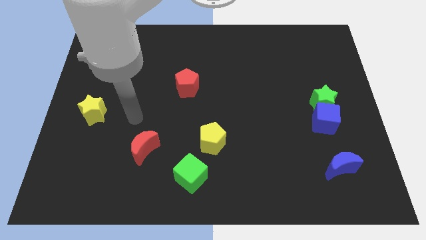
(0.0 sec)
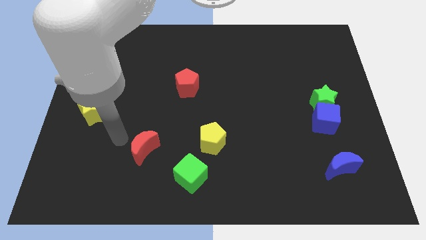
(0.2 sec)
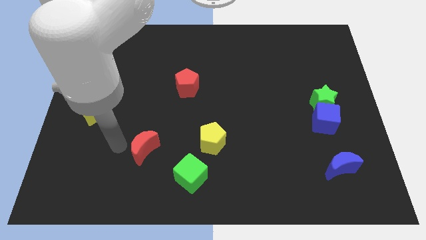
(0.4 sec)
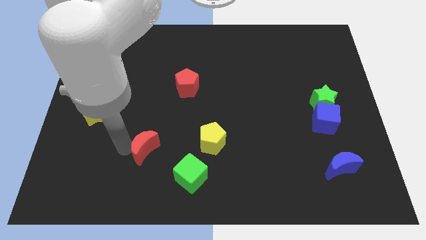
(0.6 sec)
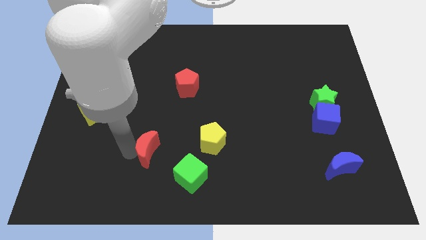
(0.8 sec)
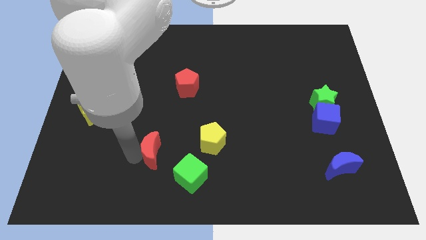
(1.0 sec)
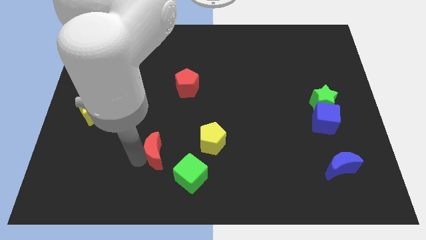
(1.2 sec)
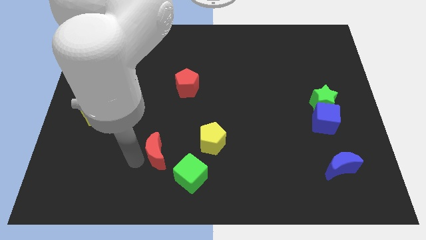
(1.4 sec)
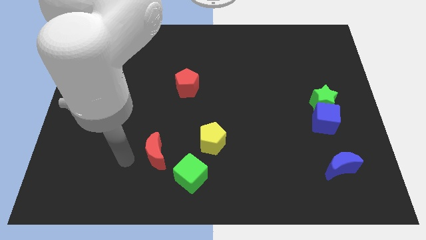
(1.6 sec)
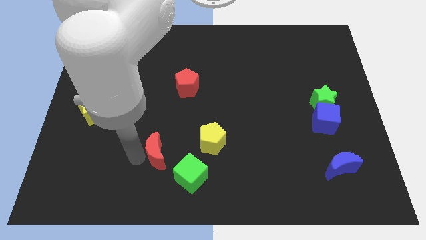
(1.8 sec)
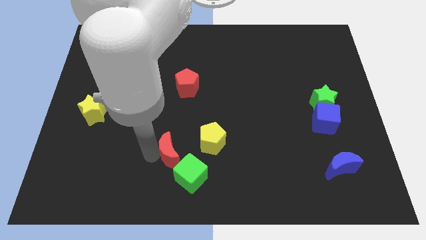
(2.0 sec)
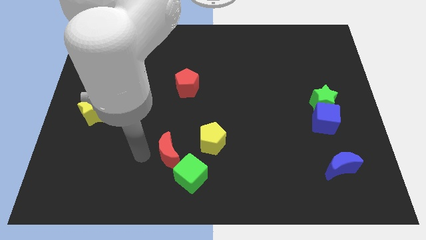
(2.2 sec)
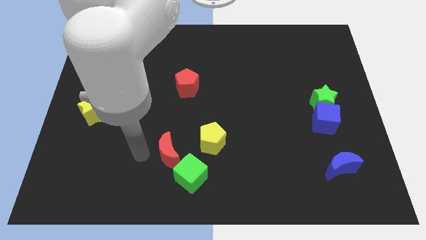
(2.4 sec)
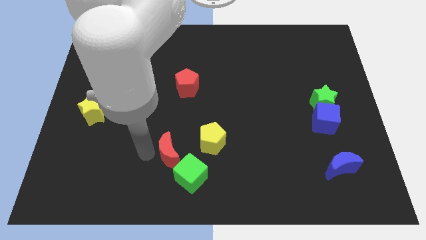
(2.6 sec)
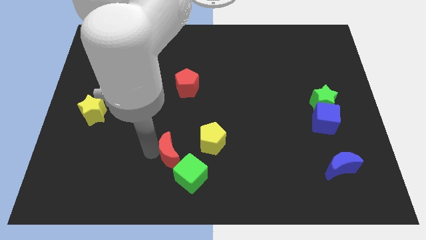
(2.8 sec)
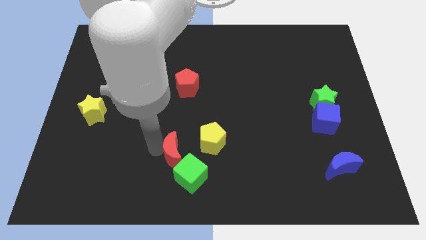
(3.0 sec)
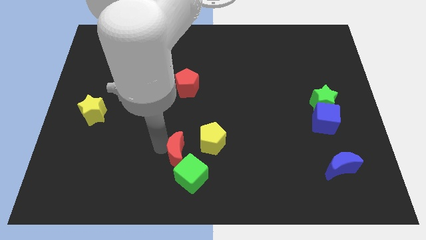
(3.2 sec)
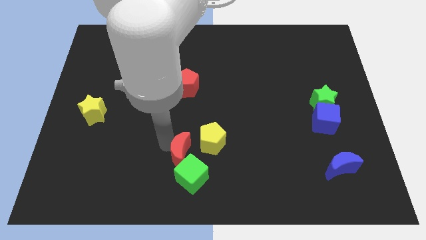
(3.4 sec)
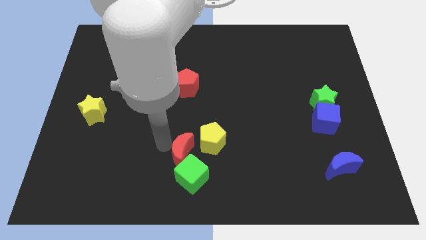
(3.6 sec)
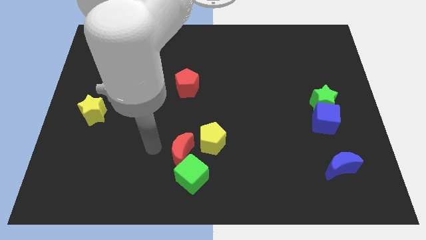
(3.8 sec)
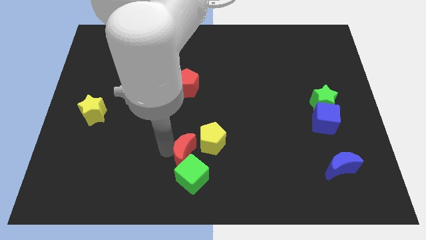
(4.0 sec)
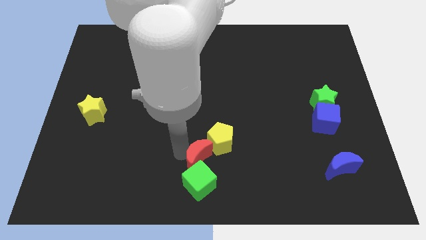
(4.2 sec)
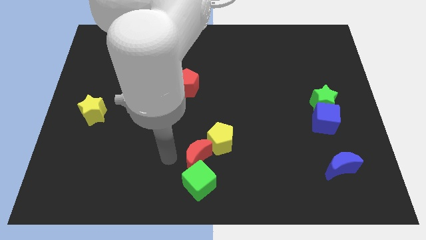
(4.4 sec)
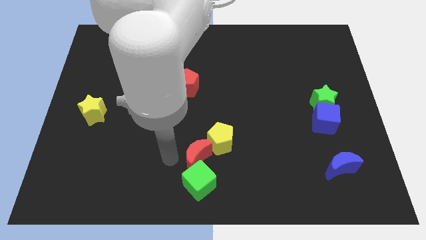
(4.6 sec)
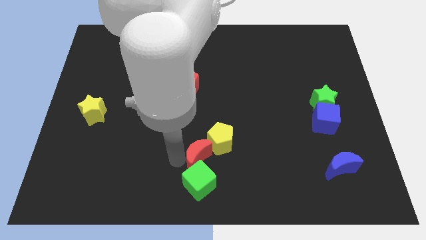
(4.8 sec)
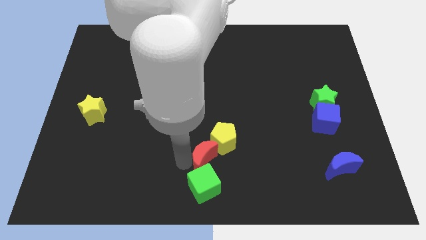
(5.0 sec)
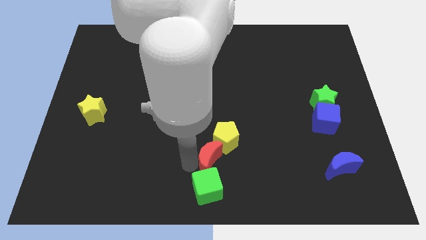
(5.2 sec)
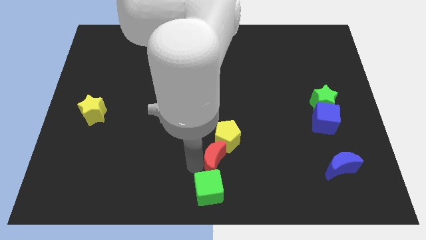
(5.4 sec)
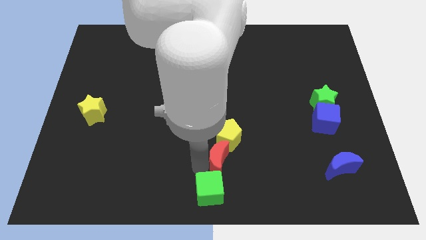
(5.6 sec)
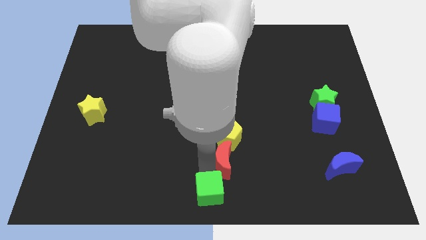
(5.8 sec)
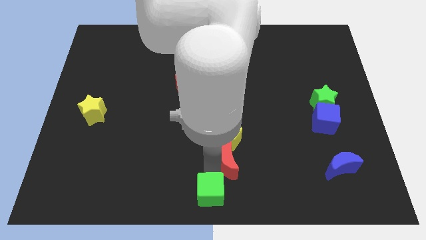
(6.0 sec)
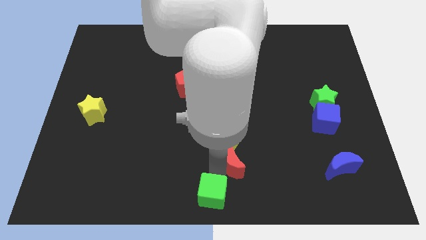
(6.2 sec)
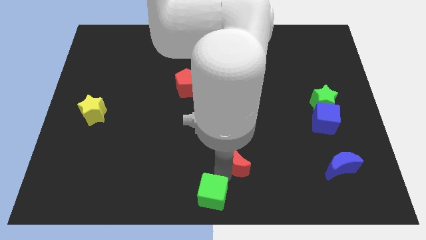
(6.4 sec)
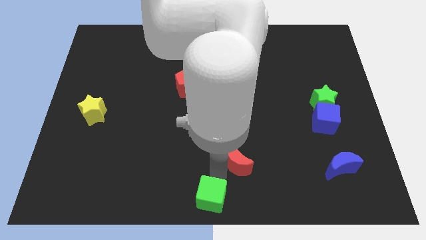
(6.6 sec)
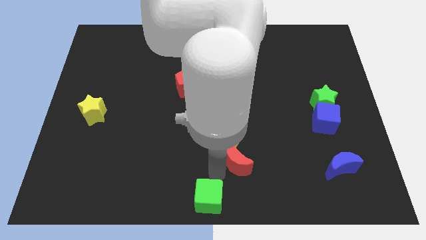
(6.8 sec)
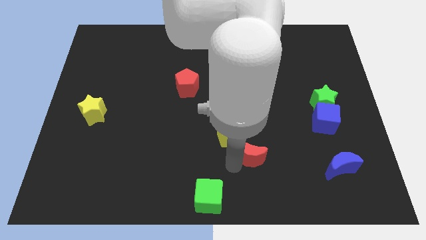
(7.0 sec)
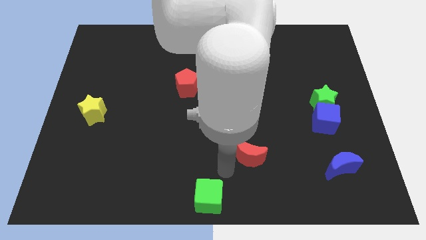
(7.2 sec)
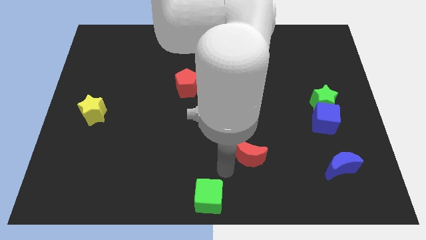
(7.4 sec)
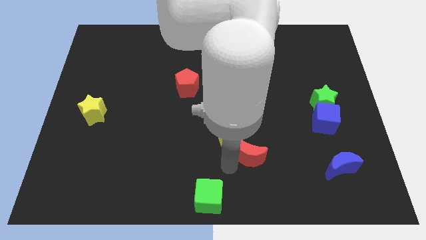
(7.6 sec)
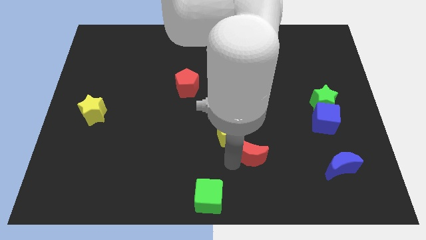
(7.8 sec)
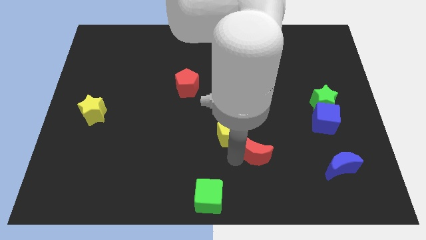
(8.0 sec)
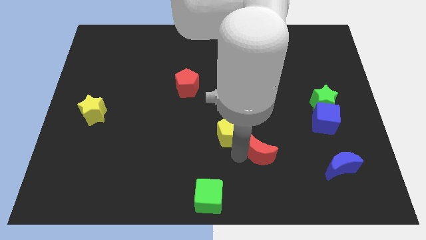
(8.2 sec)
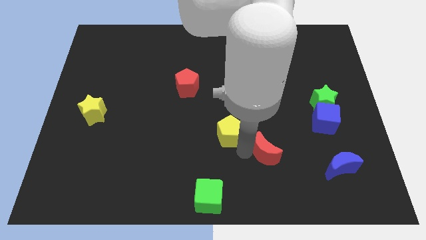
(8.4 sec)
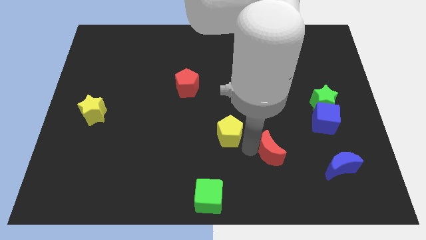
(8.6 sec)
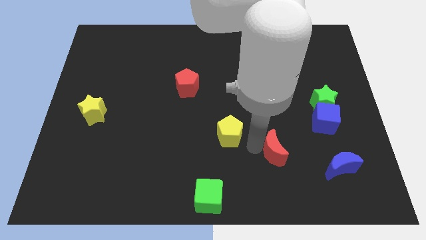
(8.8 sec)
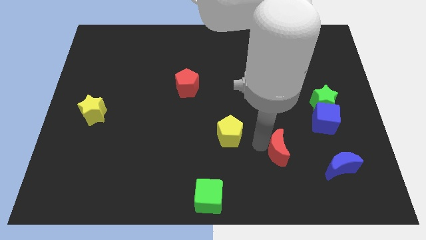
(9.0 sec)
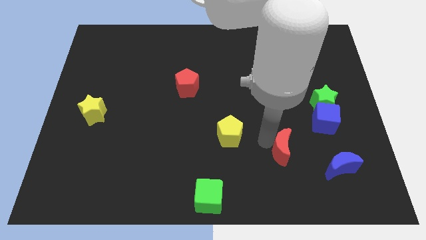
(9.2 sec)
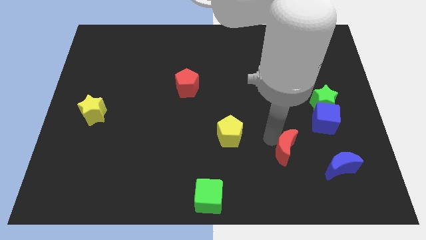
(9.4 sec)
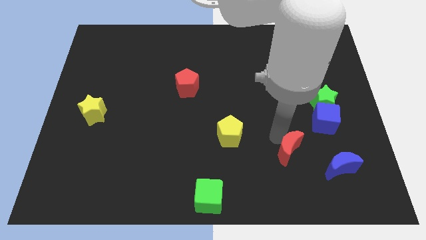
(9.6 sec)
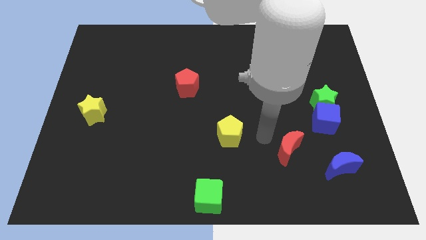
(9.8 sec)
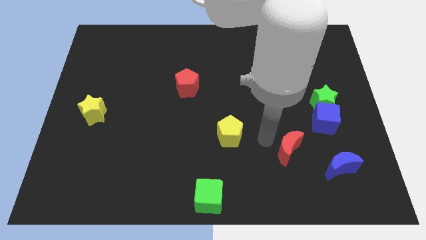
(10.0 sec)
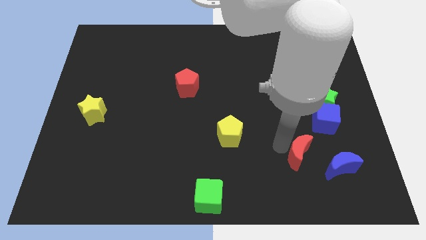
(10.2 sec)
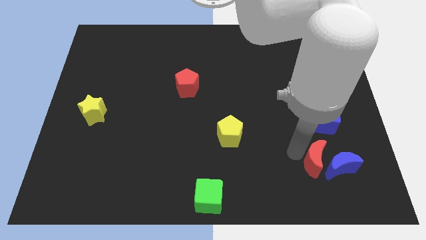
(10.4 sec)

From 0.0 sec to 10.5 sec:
push the red moon close to the blue moon

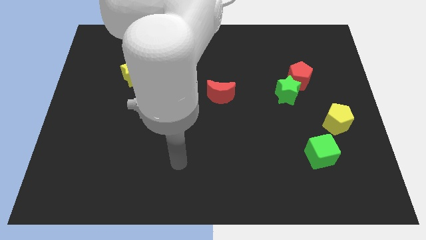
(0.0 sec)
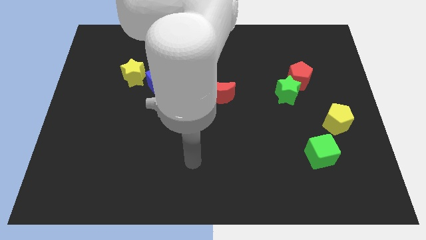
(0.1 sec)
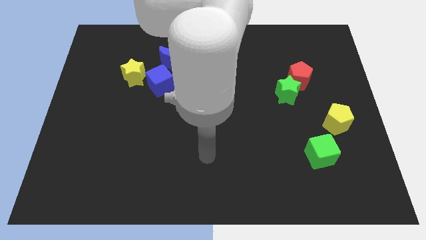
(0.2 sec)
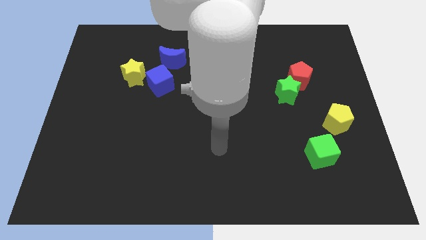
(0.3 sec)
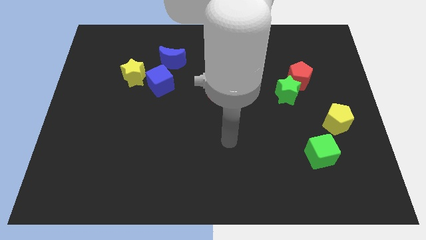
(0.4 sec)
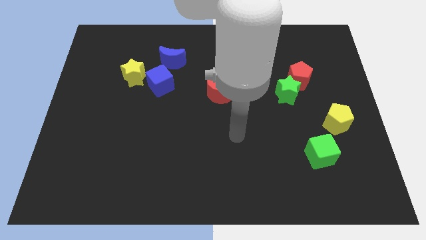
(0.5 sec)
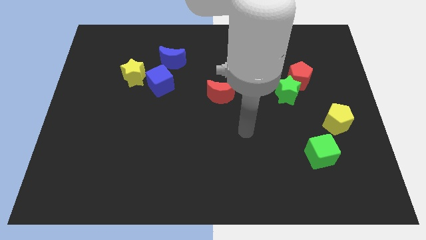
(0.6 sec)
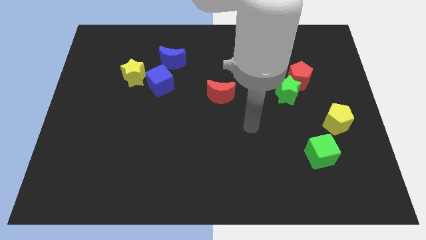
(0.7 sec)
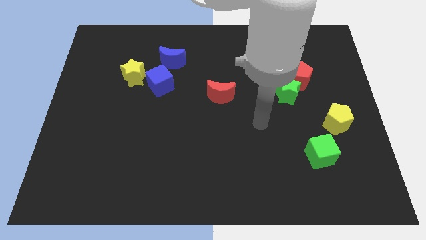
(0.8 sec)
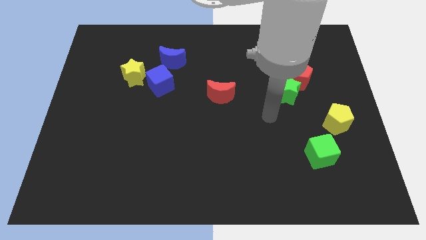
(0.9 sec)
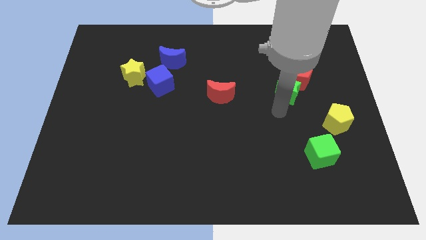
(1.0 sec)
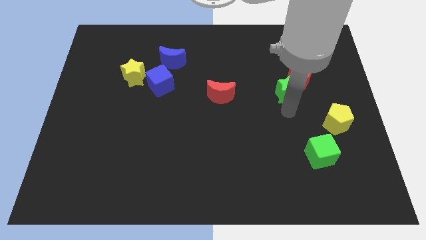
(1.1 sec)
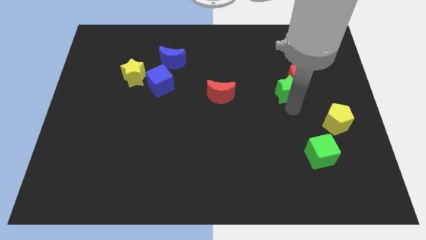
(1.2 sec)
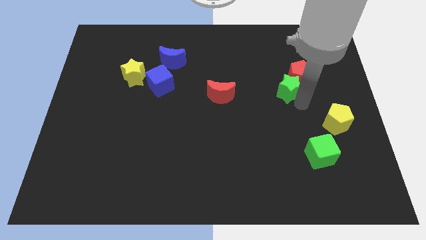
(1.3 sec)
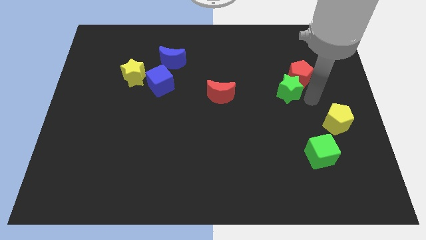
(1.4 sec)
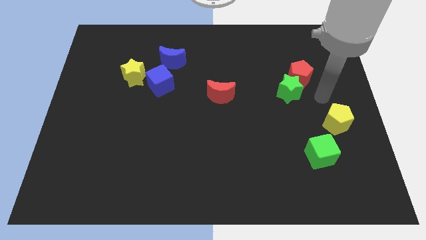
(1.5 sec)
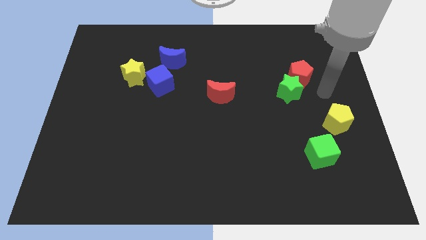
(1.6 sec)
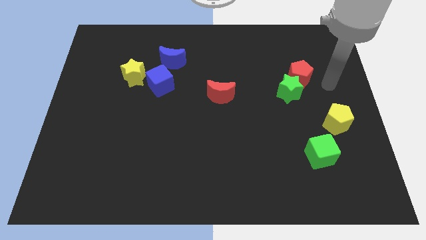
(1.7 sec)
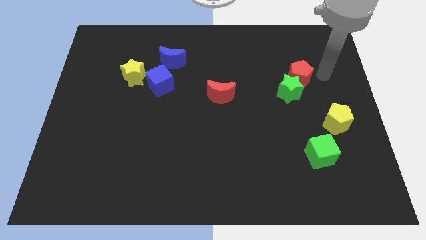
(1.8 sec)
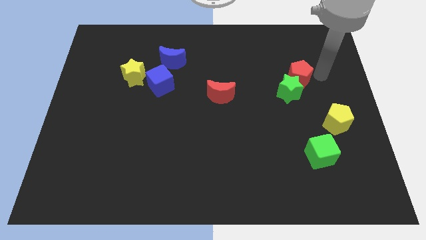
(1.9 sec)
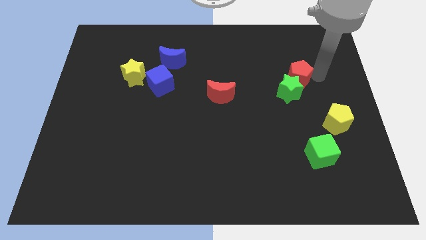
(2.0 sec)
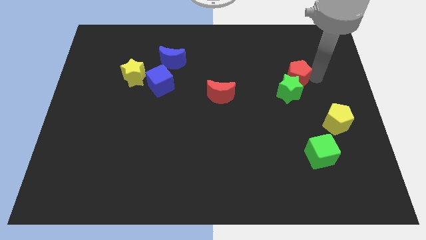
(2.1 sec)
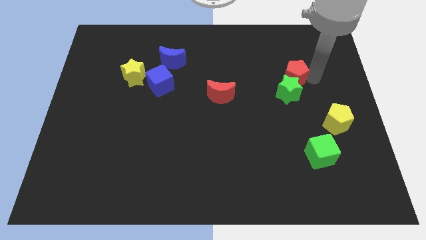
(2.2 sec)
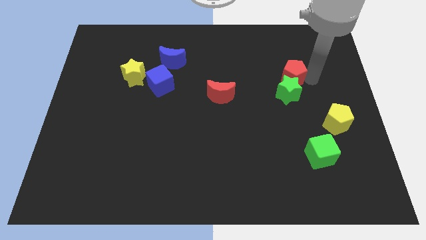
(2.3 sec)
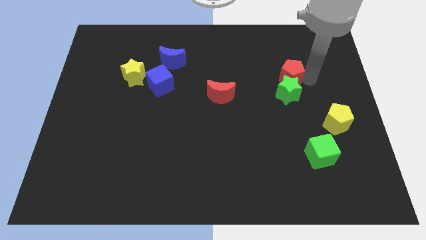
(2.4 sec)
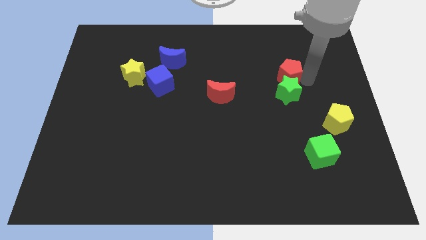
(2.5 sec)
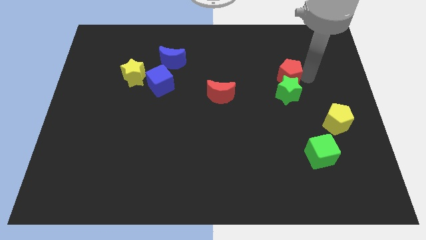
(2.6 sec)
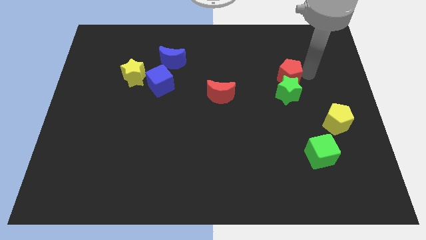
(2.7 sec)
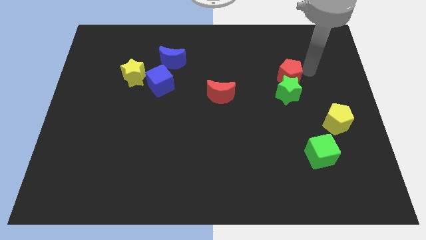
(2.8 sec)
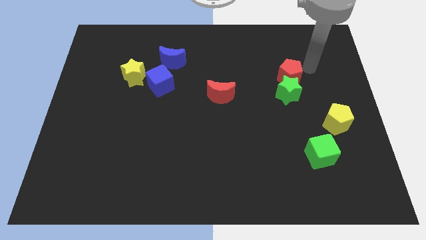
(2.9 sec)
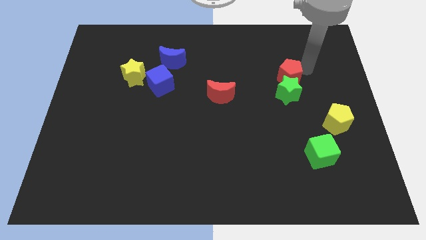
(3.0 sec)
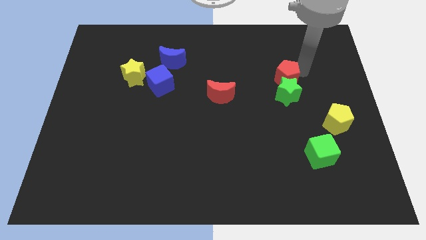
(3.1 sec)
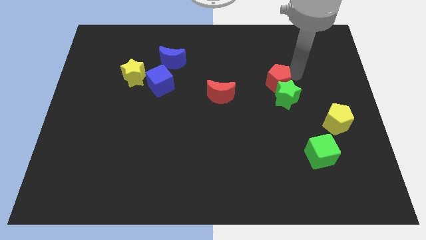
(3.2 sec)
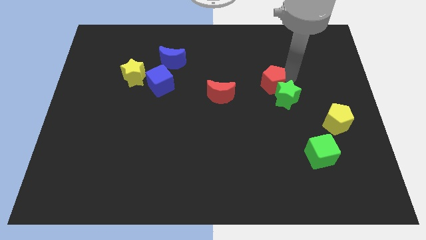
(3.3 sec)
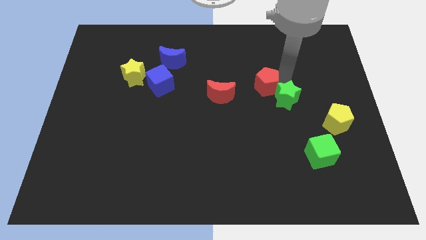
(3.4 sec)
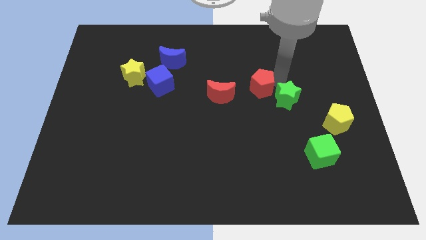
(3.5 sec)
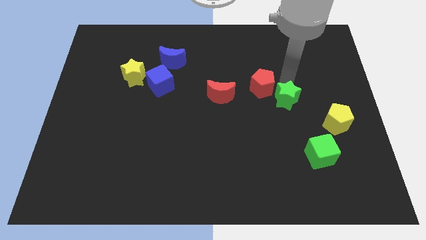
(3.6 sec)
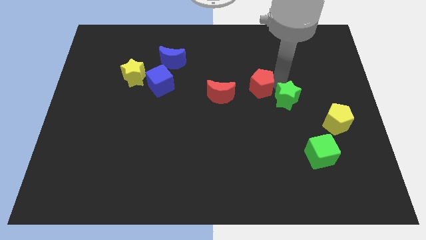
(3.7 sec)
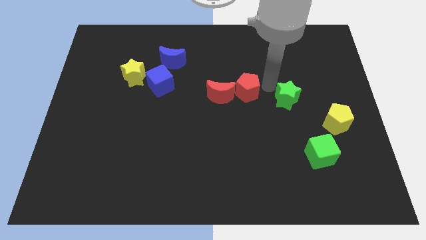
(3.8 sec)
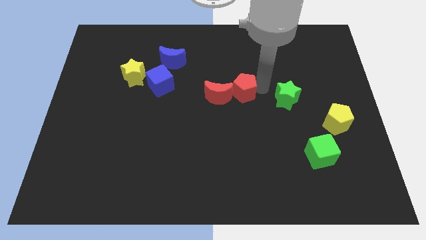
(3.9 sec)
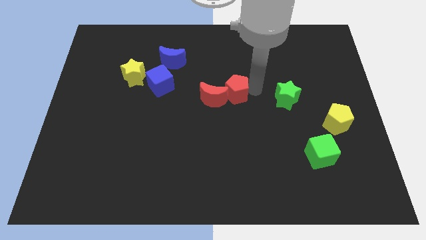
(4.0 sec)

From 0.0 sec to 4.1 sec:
slide the red pentagon towards the red moon
